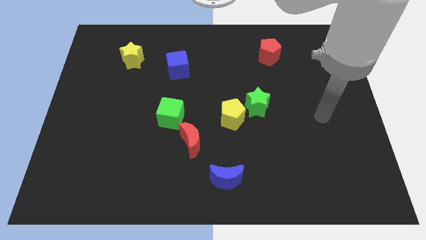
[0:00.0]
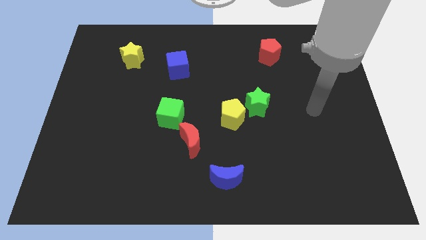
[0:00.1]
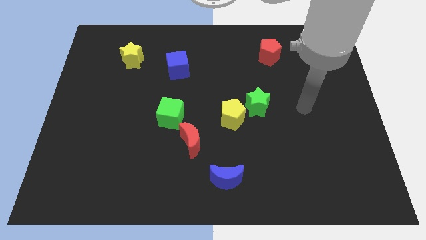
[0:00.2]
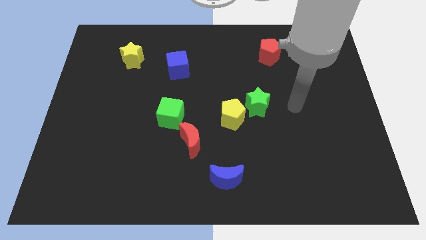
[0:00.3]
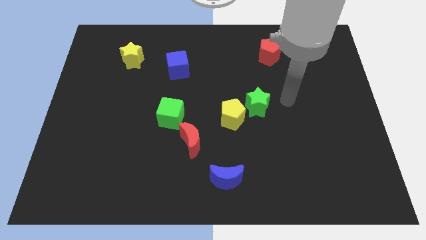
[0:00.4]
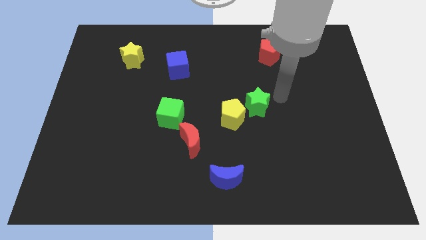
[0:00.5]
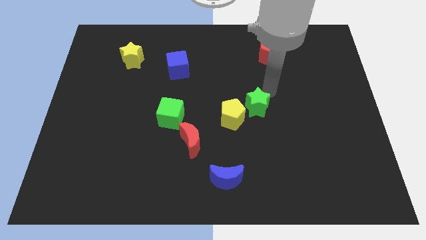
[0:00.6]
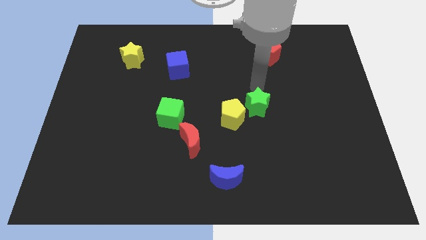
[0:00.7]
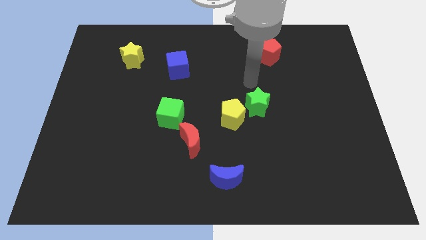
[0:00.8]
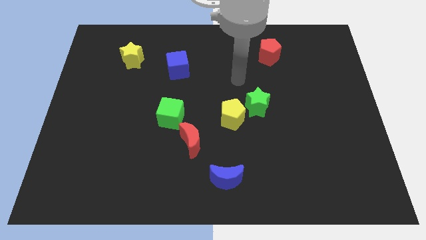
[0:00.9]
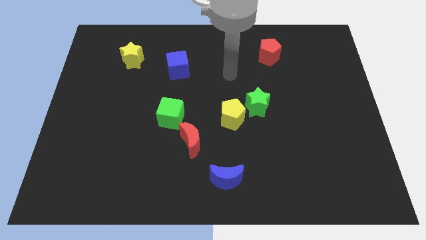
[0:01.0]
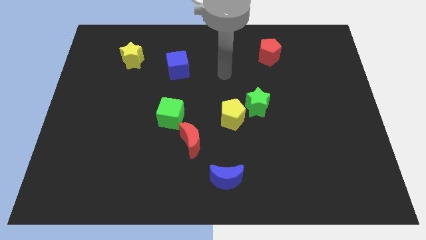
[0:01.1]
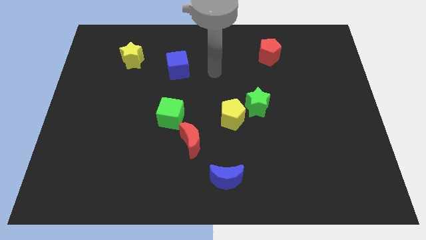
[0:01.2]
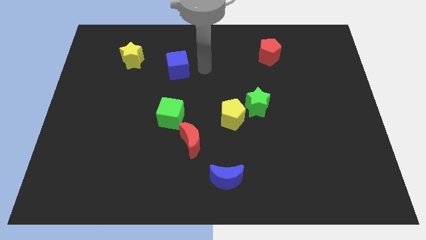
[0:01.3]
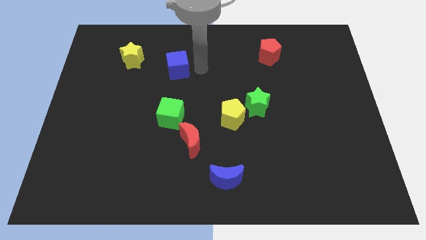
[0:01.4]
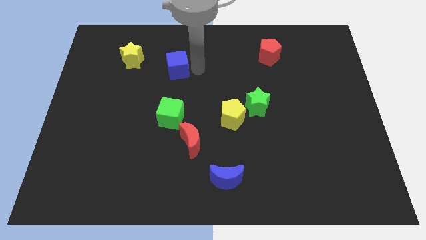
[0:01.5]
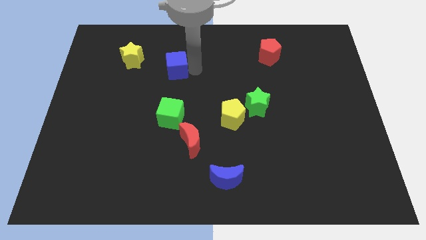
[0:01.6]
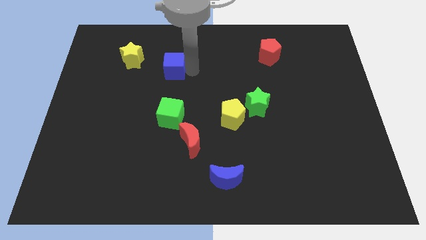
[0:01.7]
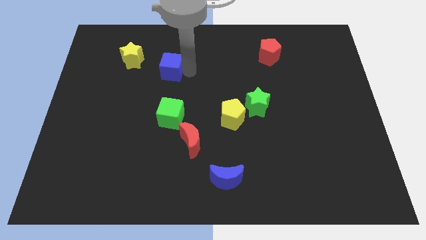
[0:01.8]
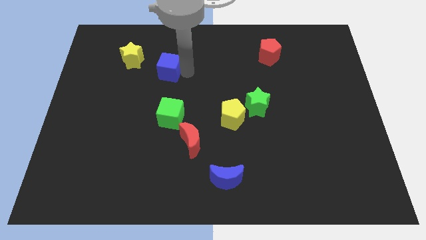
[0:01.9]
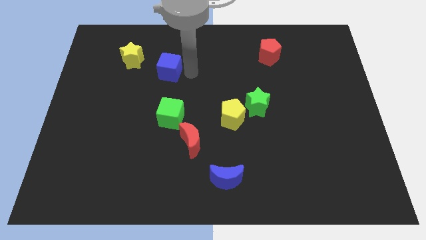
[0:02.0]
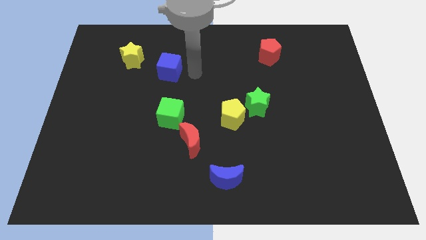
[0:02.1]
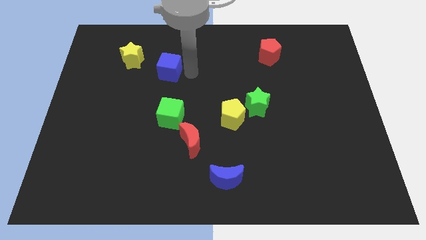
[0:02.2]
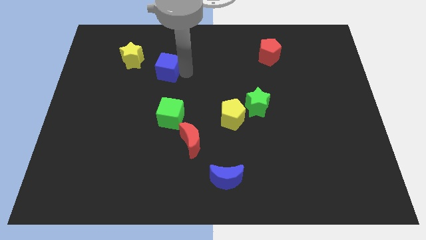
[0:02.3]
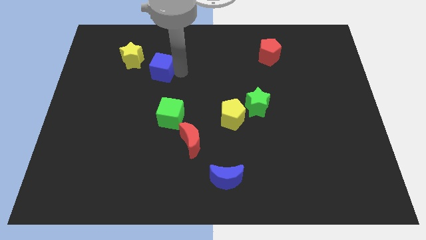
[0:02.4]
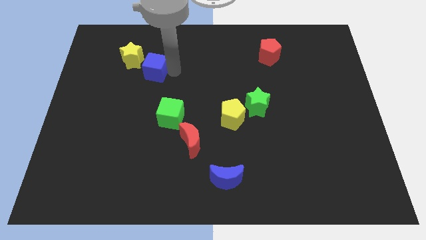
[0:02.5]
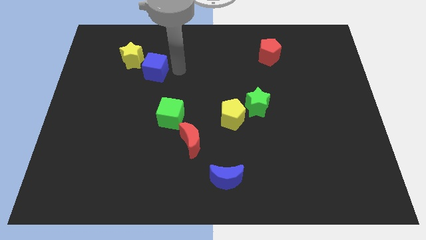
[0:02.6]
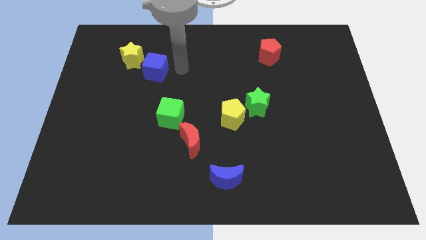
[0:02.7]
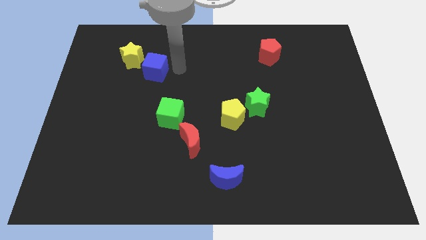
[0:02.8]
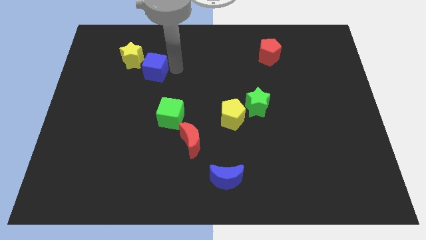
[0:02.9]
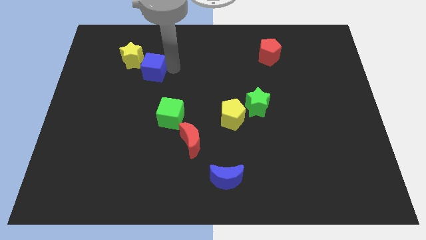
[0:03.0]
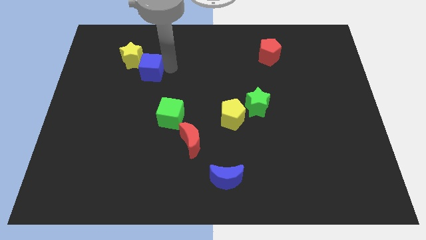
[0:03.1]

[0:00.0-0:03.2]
slightly push the blue cube to the left

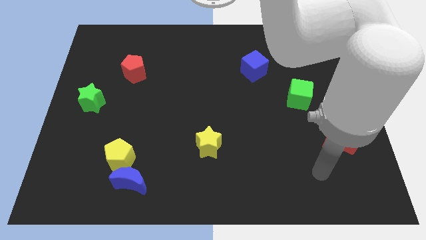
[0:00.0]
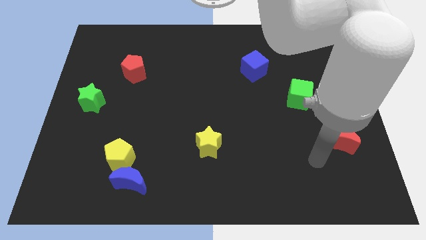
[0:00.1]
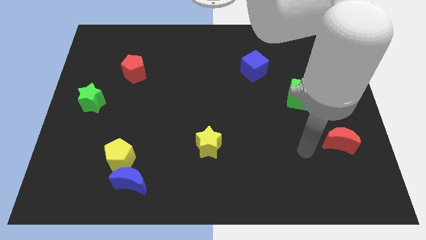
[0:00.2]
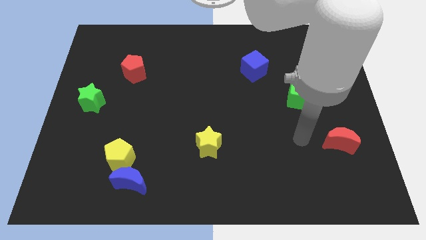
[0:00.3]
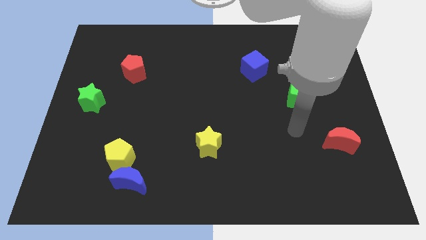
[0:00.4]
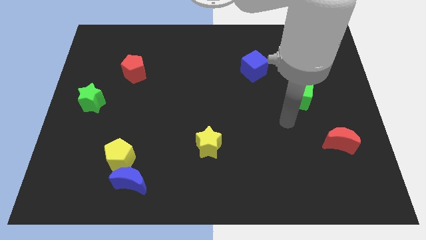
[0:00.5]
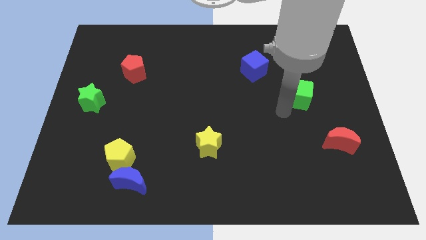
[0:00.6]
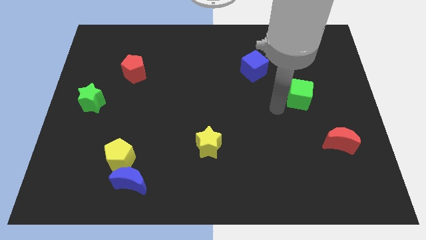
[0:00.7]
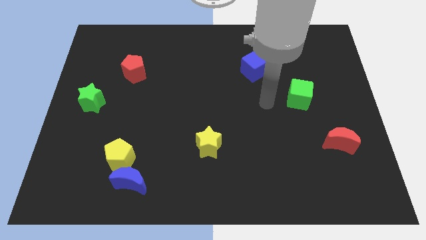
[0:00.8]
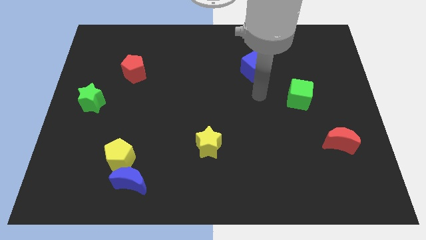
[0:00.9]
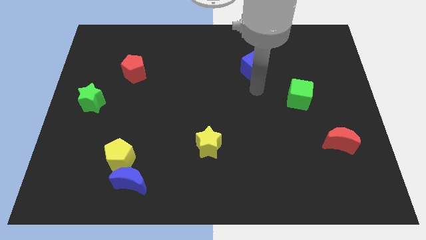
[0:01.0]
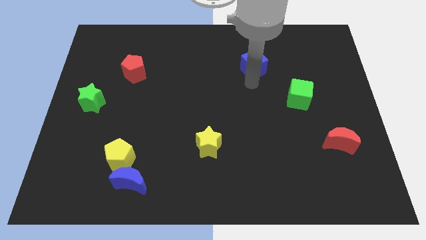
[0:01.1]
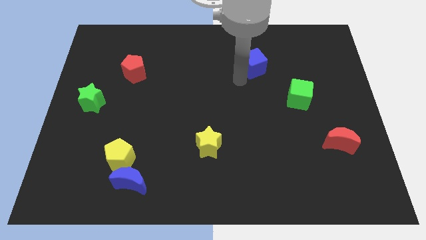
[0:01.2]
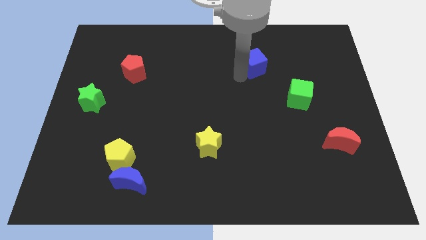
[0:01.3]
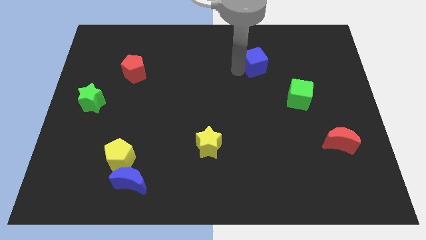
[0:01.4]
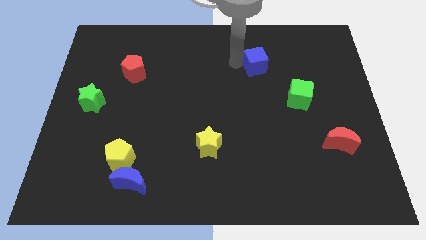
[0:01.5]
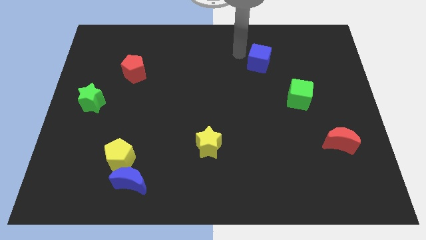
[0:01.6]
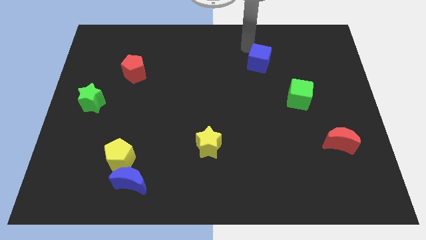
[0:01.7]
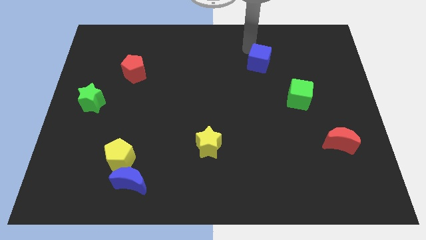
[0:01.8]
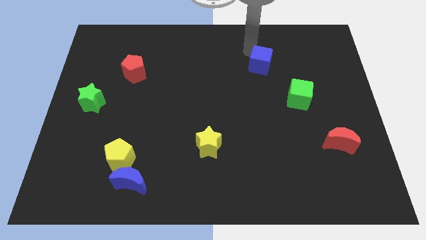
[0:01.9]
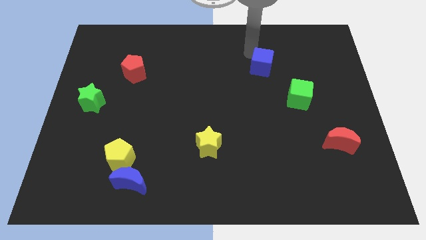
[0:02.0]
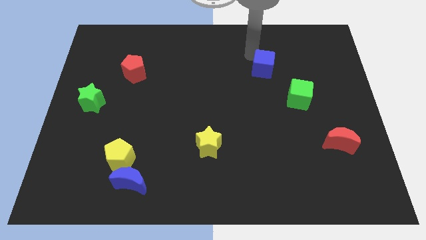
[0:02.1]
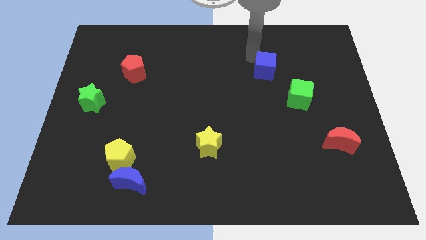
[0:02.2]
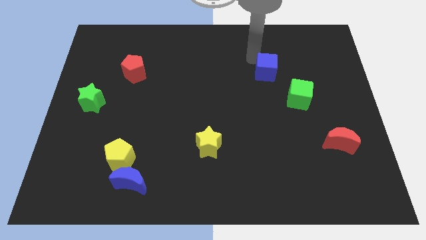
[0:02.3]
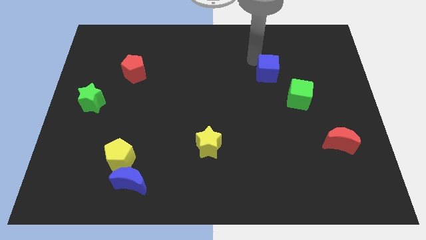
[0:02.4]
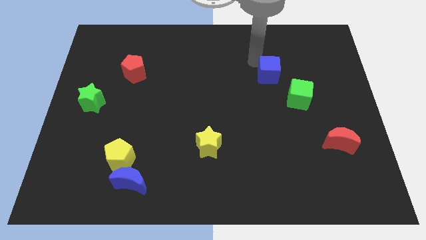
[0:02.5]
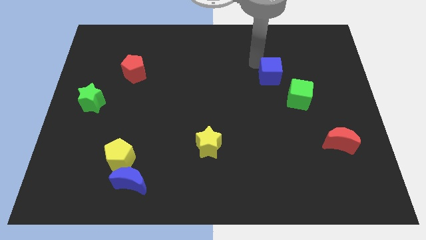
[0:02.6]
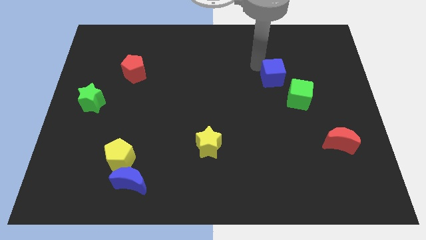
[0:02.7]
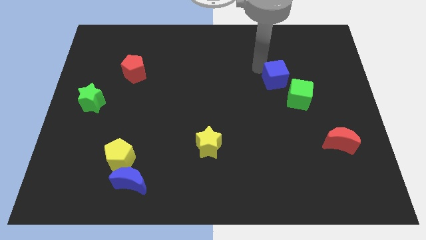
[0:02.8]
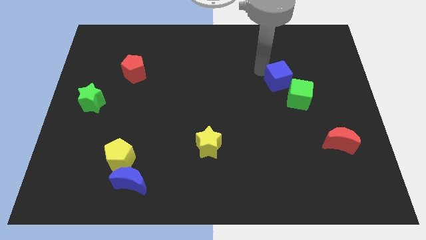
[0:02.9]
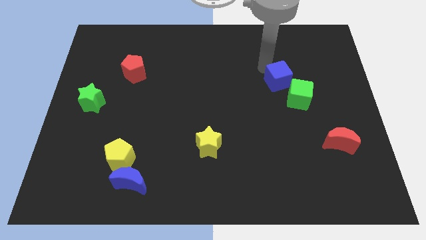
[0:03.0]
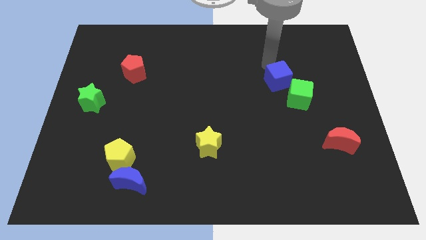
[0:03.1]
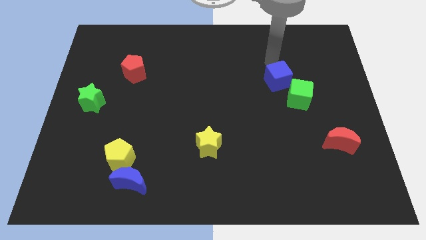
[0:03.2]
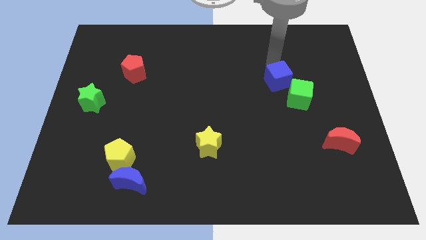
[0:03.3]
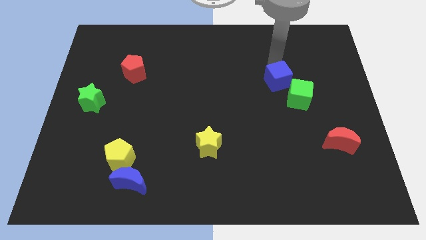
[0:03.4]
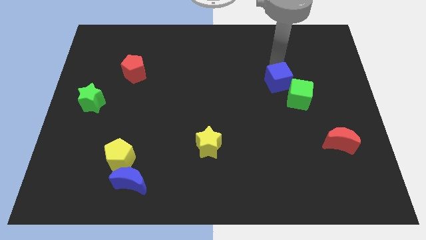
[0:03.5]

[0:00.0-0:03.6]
move the blue cube downwards and right somewhat

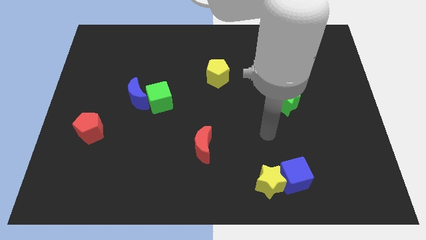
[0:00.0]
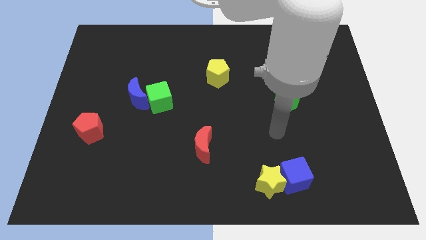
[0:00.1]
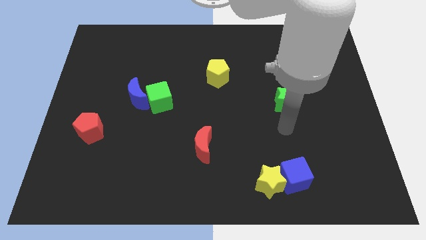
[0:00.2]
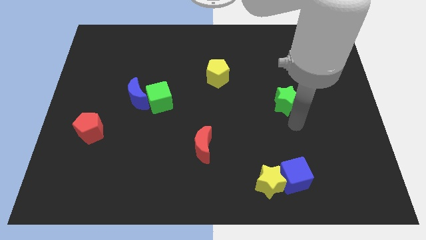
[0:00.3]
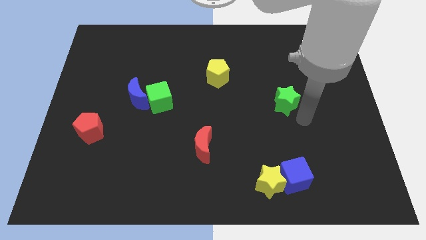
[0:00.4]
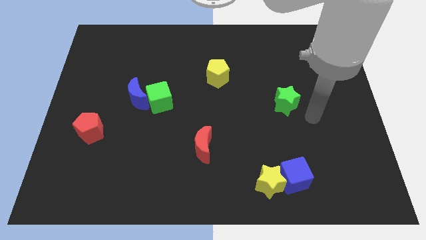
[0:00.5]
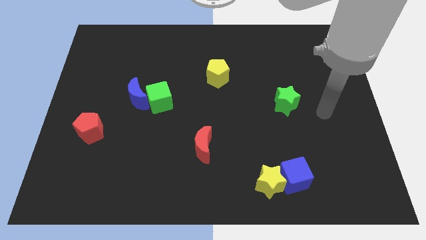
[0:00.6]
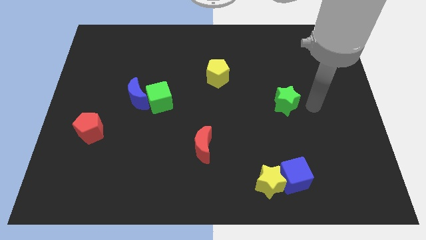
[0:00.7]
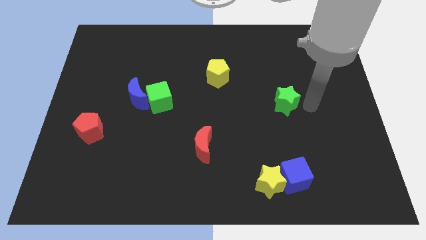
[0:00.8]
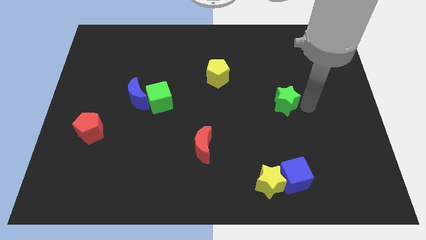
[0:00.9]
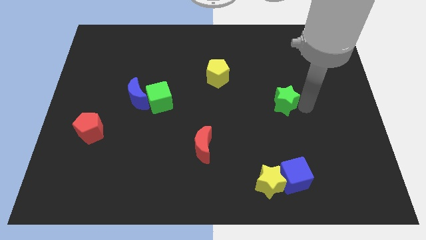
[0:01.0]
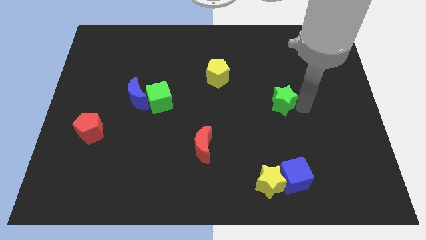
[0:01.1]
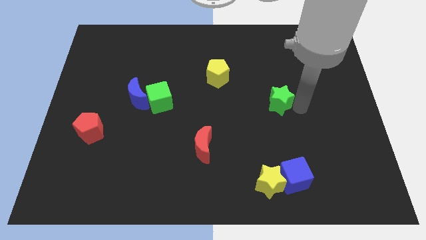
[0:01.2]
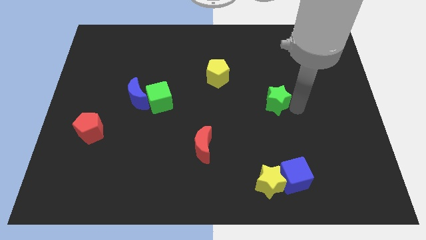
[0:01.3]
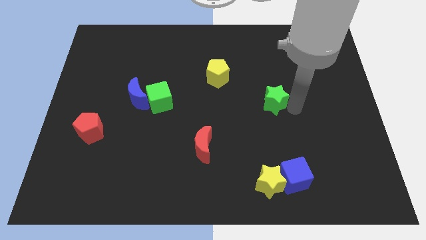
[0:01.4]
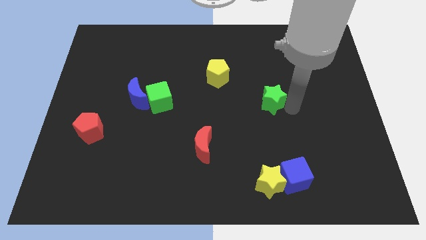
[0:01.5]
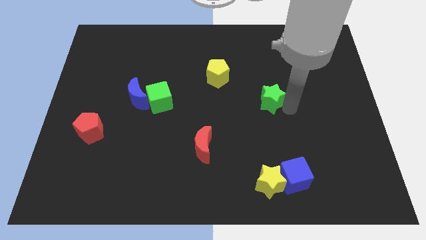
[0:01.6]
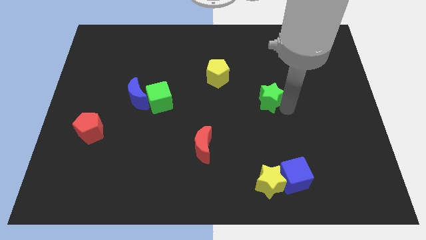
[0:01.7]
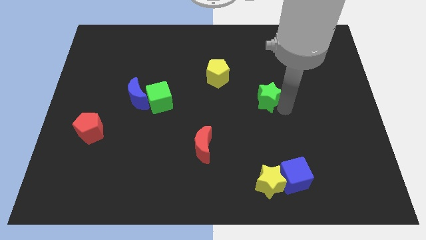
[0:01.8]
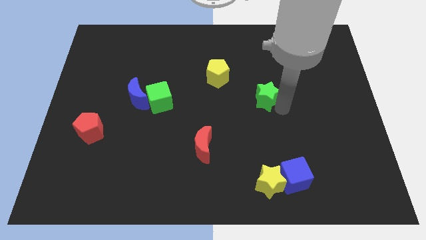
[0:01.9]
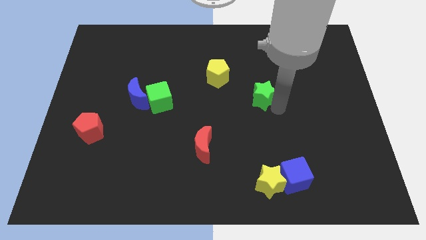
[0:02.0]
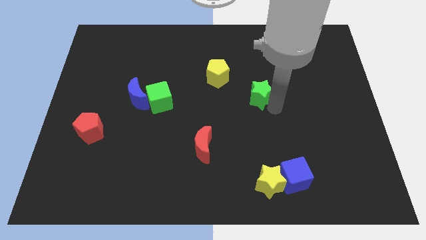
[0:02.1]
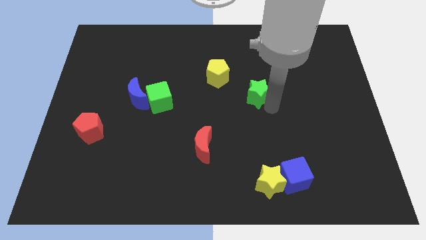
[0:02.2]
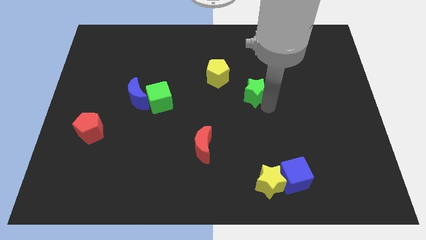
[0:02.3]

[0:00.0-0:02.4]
slightly push the green star to the left
